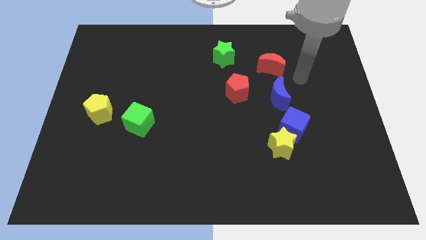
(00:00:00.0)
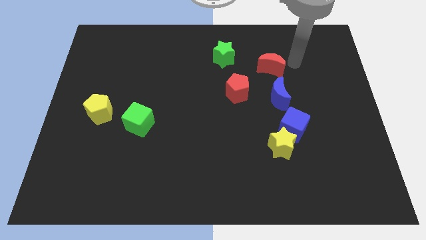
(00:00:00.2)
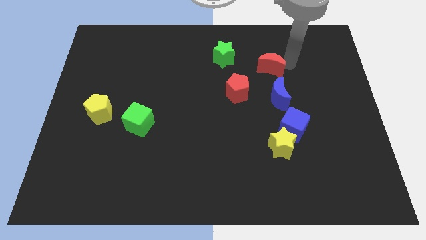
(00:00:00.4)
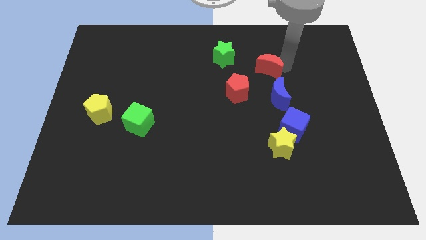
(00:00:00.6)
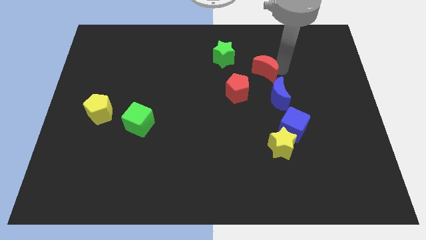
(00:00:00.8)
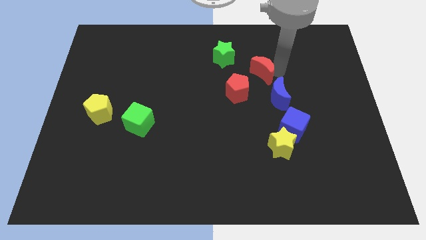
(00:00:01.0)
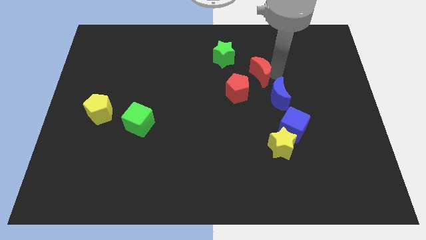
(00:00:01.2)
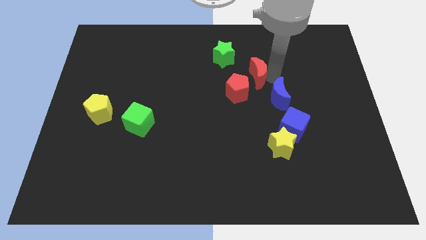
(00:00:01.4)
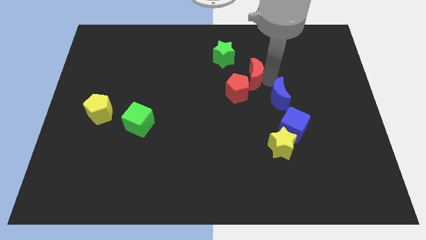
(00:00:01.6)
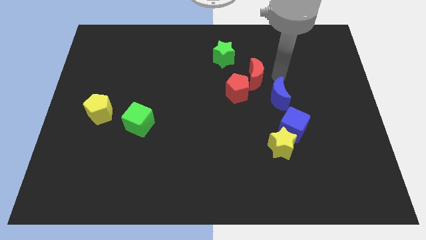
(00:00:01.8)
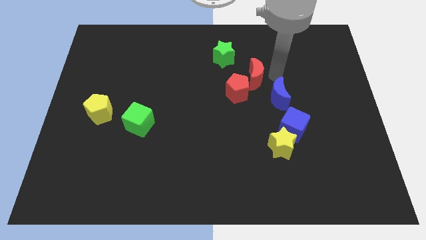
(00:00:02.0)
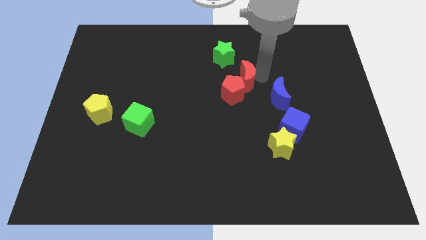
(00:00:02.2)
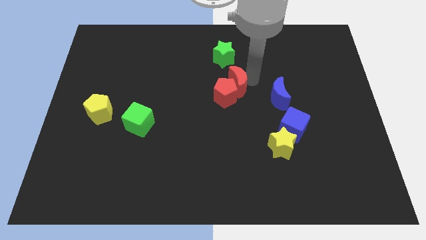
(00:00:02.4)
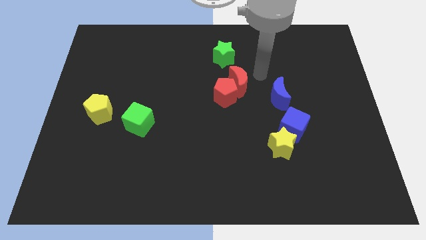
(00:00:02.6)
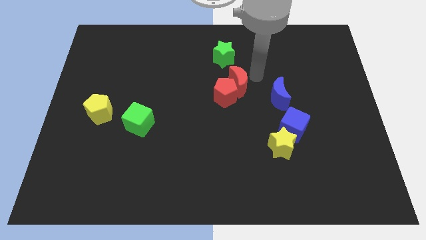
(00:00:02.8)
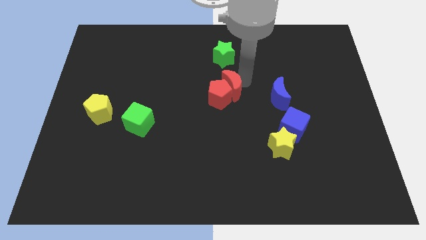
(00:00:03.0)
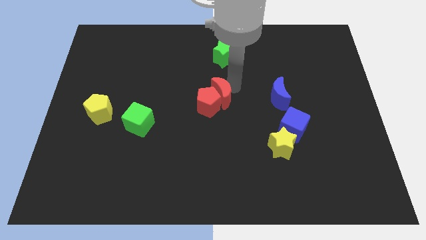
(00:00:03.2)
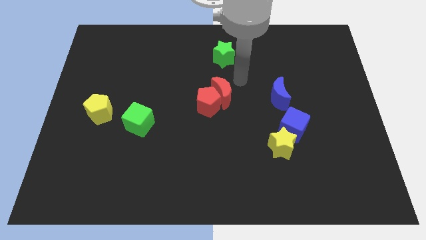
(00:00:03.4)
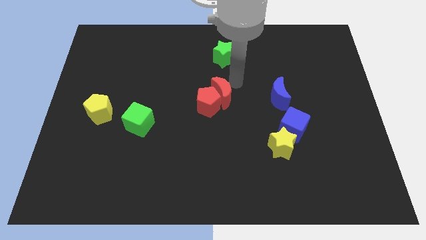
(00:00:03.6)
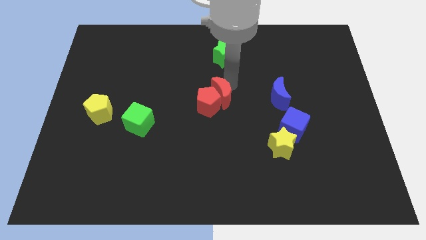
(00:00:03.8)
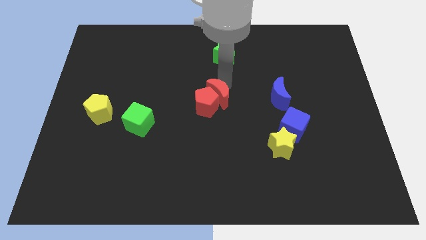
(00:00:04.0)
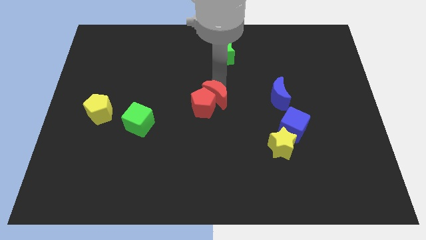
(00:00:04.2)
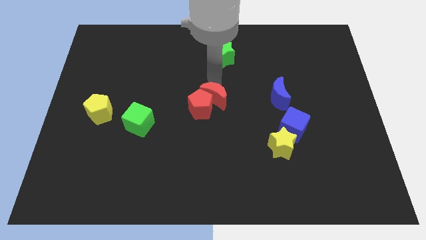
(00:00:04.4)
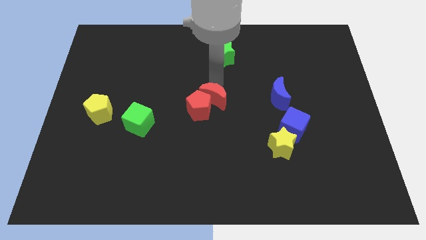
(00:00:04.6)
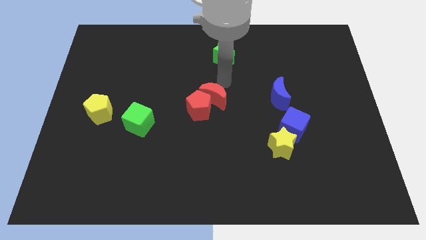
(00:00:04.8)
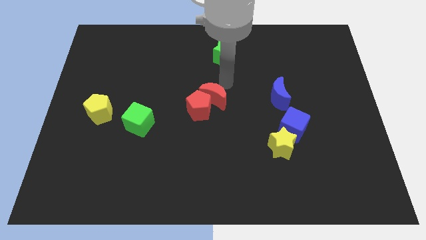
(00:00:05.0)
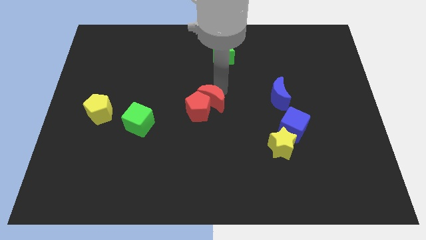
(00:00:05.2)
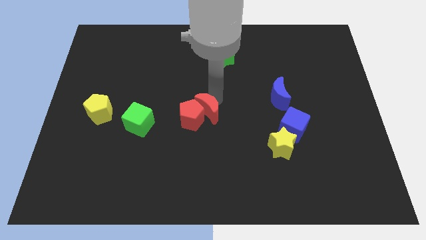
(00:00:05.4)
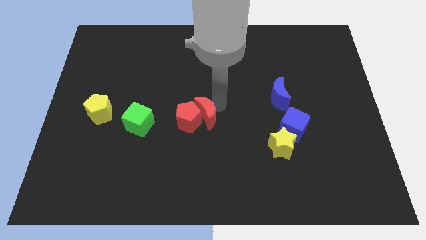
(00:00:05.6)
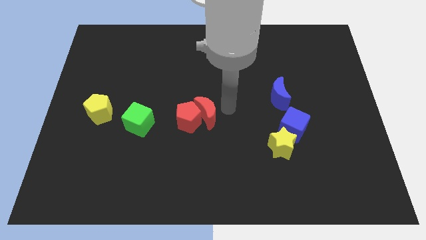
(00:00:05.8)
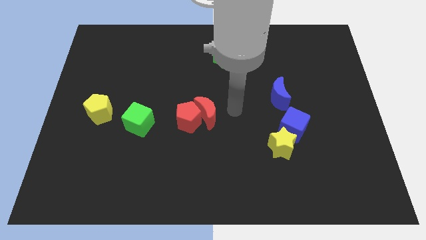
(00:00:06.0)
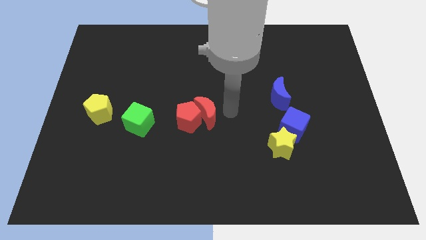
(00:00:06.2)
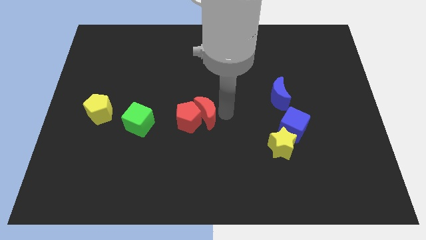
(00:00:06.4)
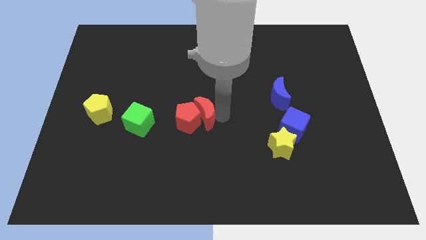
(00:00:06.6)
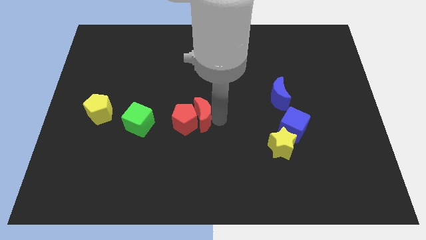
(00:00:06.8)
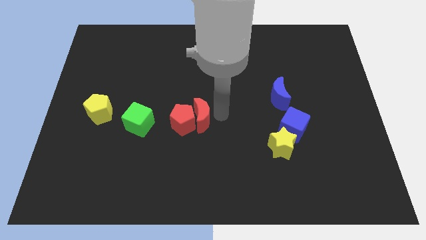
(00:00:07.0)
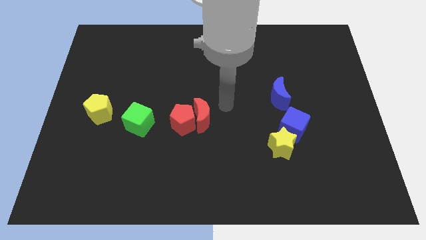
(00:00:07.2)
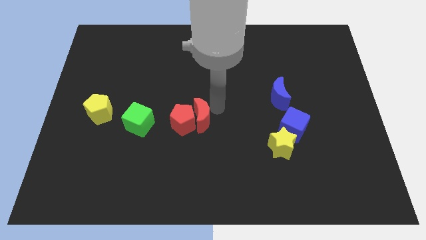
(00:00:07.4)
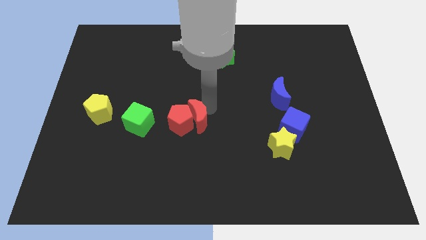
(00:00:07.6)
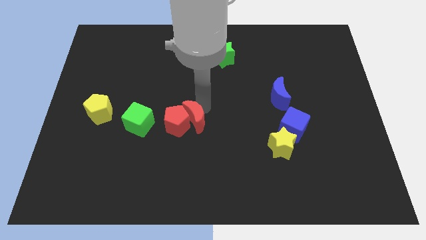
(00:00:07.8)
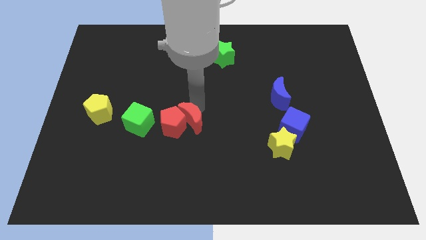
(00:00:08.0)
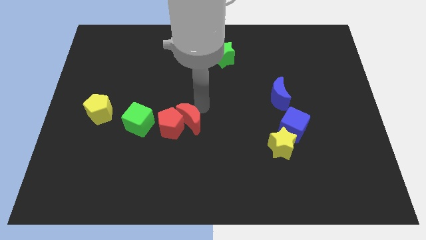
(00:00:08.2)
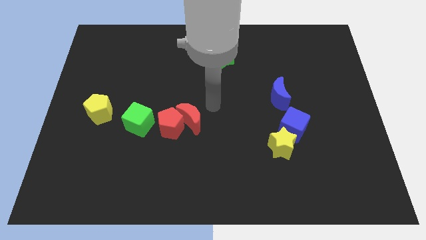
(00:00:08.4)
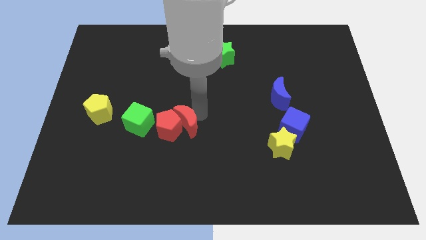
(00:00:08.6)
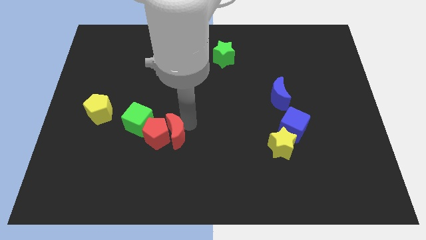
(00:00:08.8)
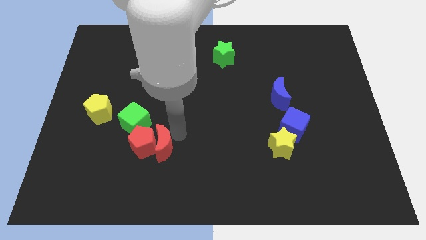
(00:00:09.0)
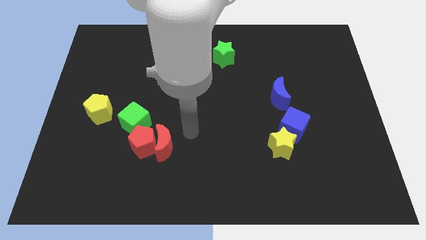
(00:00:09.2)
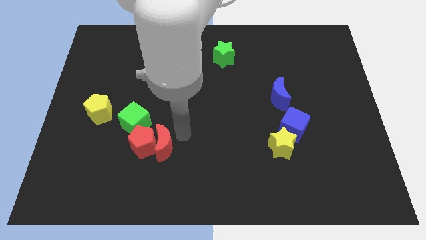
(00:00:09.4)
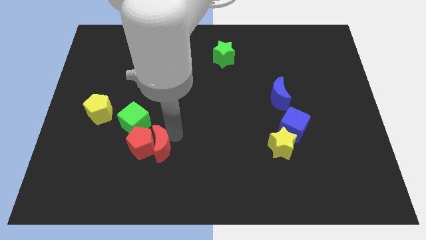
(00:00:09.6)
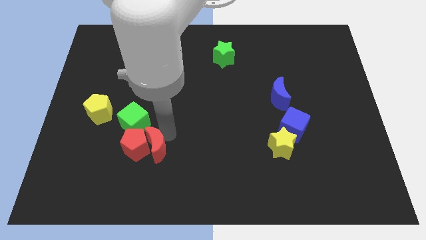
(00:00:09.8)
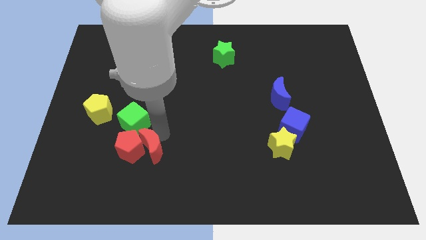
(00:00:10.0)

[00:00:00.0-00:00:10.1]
put the red moon below the green cube

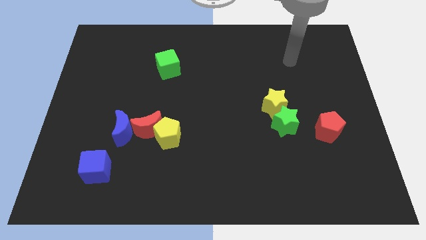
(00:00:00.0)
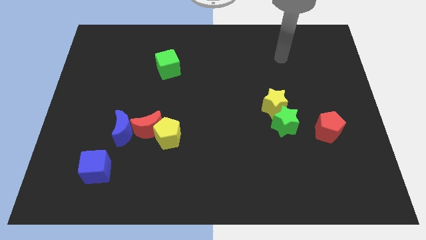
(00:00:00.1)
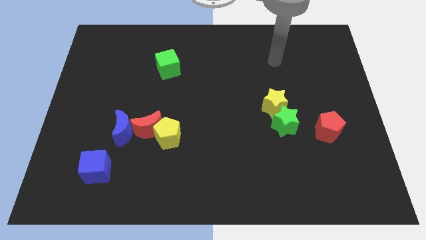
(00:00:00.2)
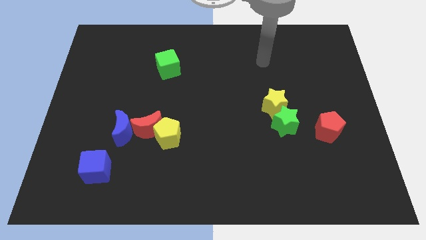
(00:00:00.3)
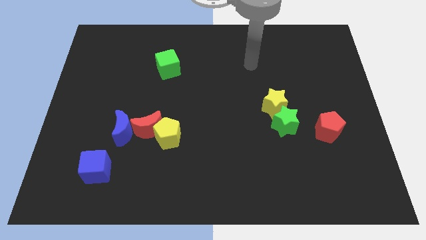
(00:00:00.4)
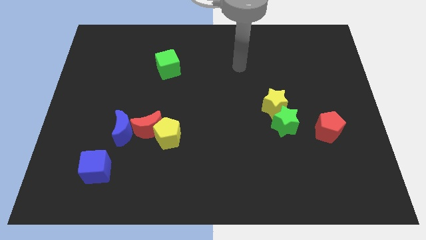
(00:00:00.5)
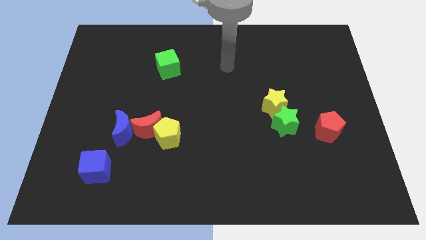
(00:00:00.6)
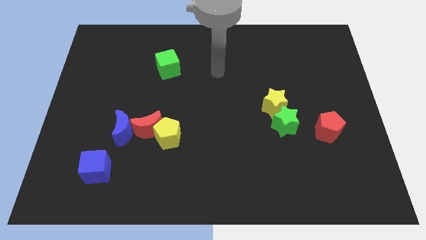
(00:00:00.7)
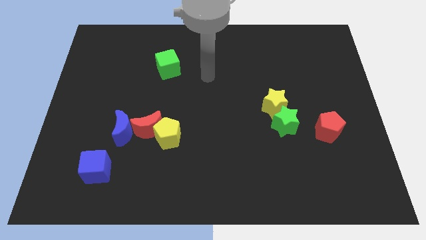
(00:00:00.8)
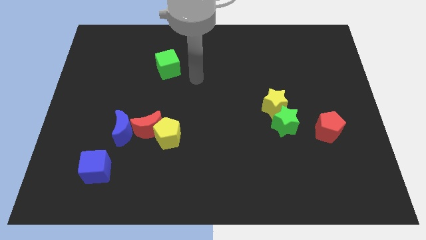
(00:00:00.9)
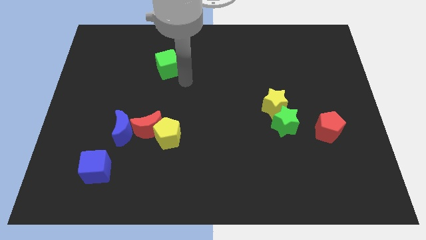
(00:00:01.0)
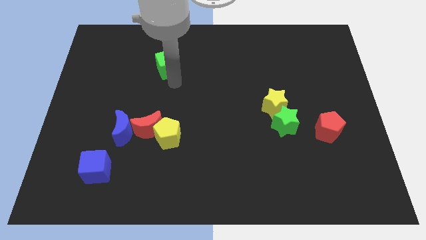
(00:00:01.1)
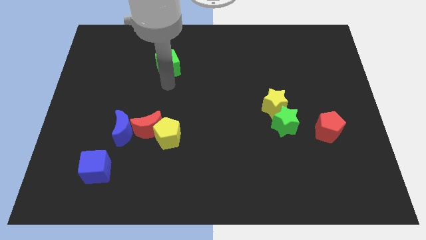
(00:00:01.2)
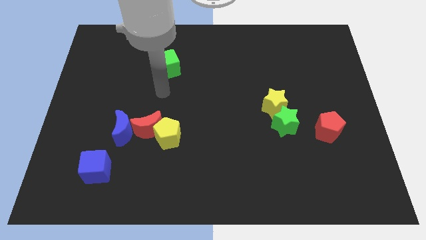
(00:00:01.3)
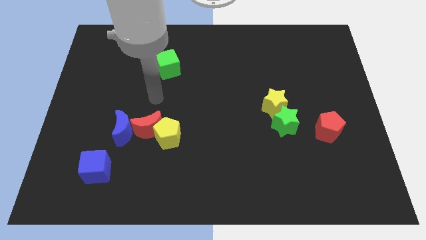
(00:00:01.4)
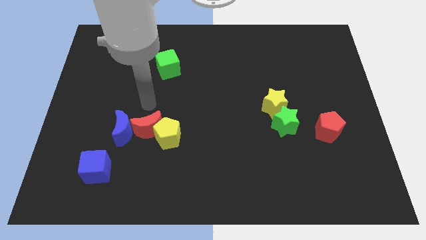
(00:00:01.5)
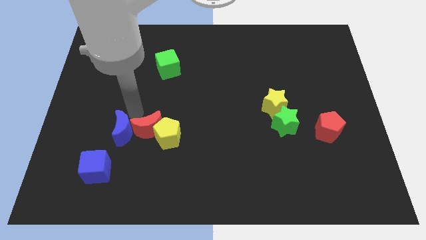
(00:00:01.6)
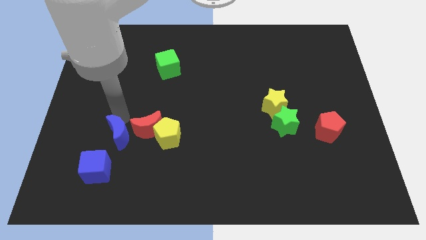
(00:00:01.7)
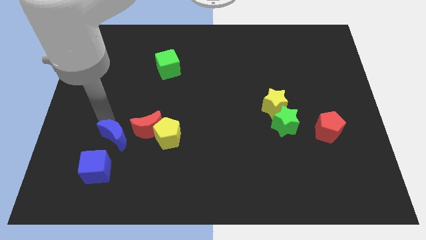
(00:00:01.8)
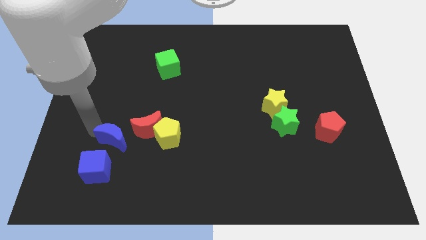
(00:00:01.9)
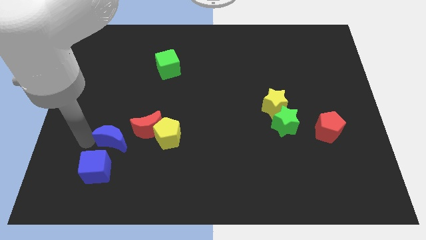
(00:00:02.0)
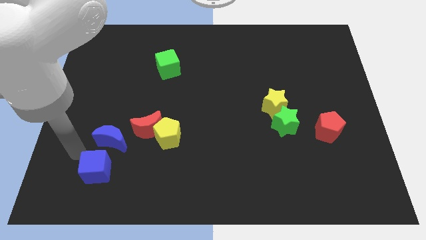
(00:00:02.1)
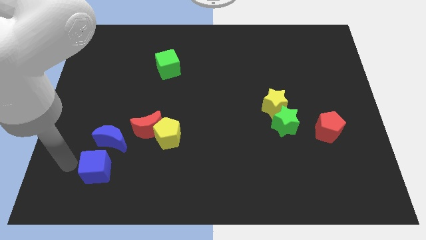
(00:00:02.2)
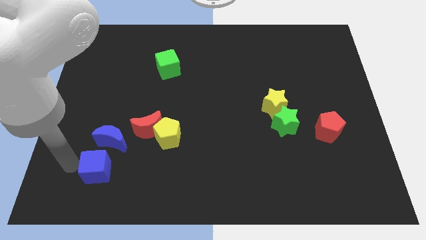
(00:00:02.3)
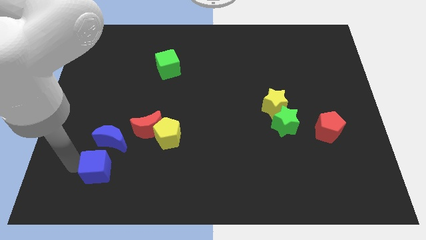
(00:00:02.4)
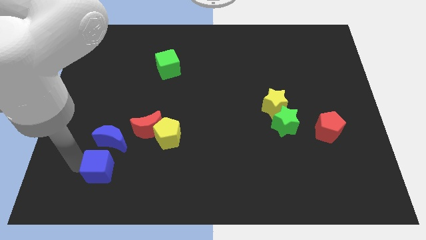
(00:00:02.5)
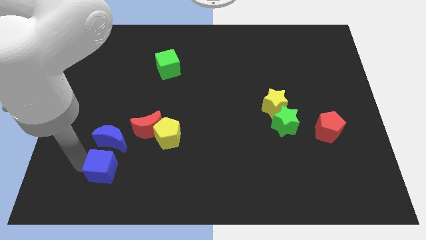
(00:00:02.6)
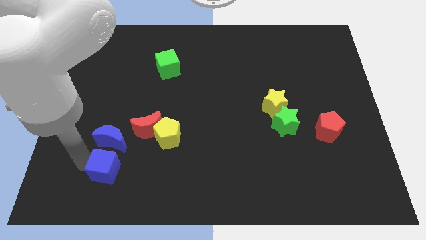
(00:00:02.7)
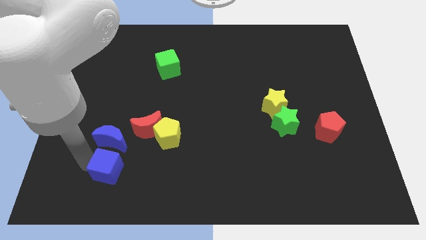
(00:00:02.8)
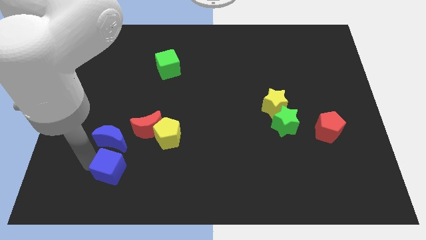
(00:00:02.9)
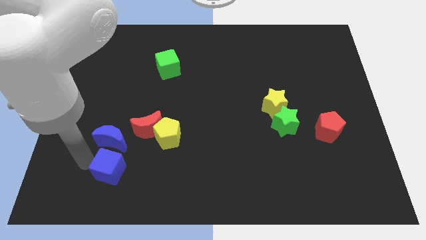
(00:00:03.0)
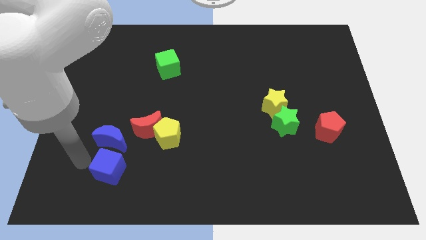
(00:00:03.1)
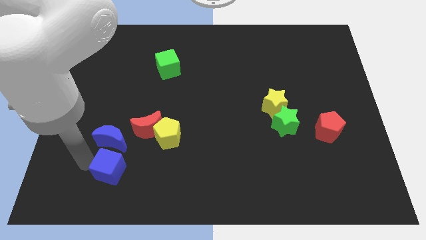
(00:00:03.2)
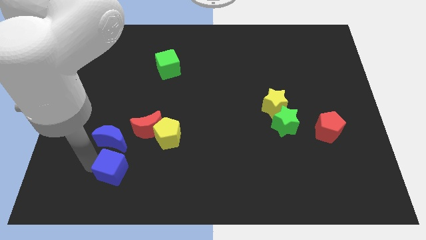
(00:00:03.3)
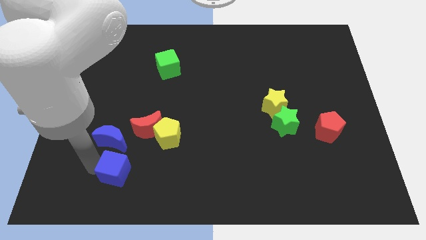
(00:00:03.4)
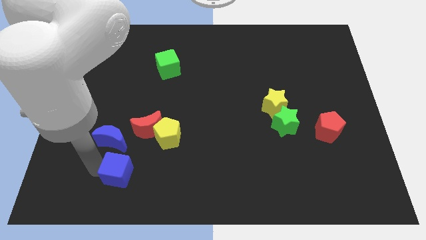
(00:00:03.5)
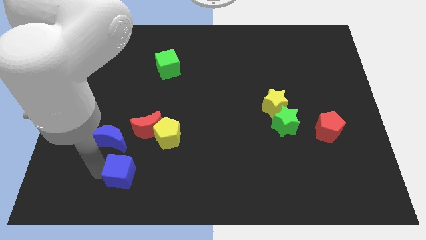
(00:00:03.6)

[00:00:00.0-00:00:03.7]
move the blue cube below the red moon
